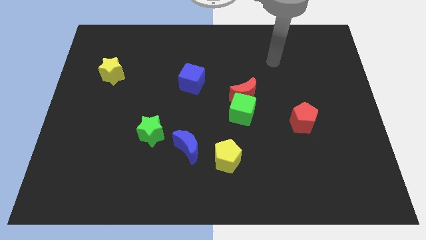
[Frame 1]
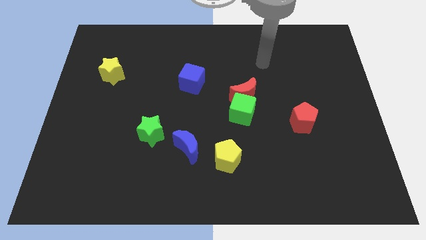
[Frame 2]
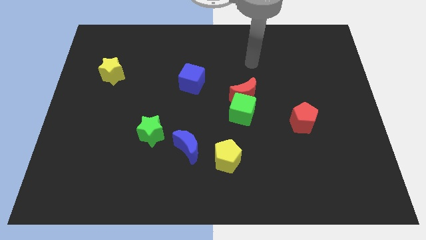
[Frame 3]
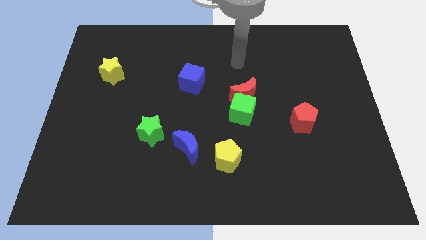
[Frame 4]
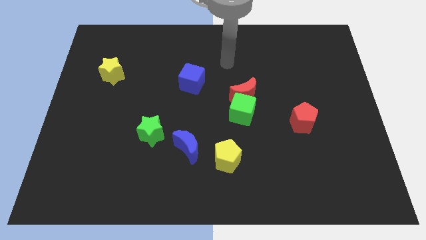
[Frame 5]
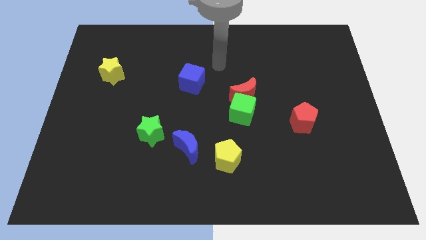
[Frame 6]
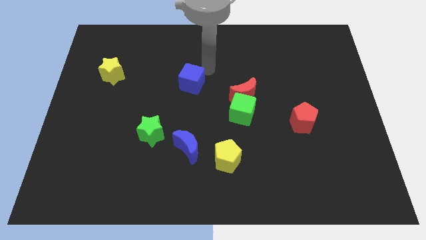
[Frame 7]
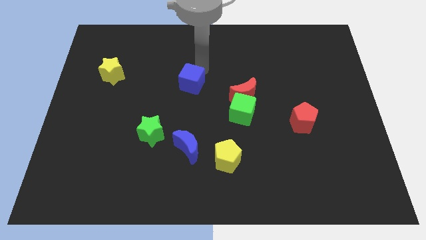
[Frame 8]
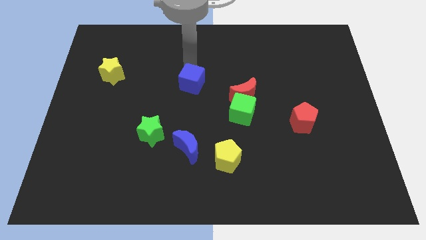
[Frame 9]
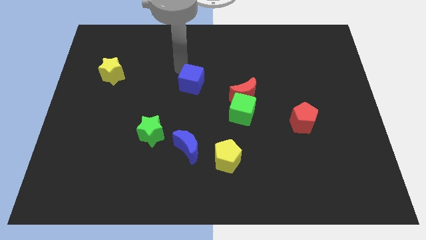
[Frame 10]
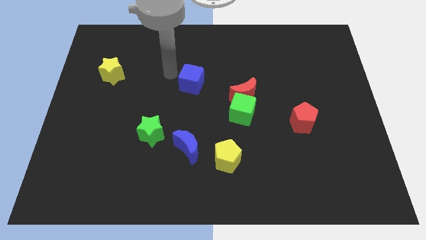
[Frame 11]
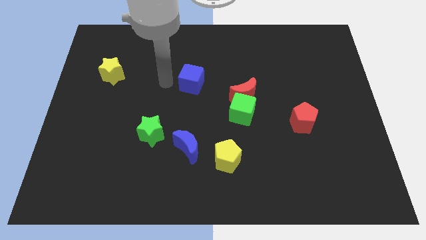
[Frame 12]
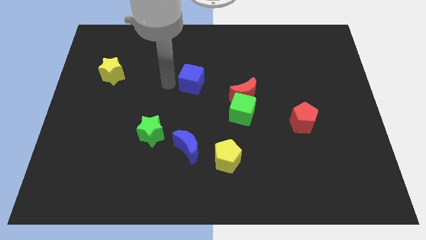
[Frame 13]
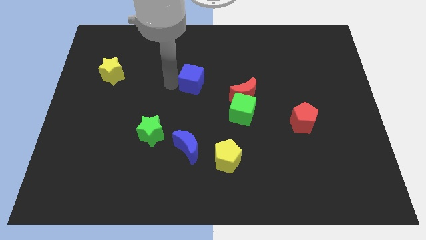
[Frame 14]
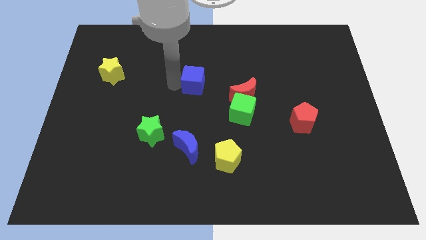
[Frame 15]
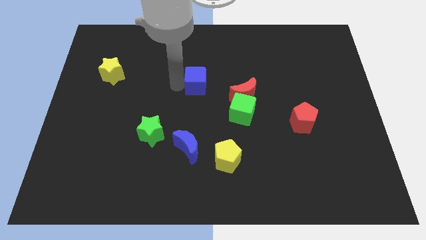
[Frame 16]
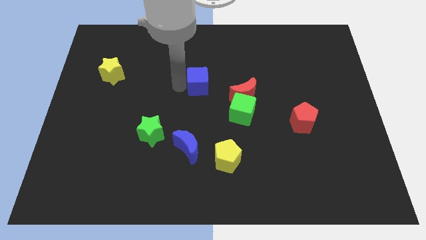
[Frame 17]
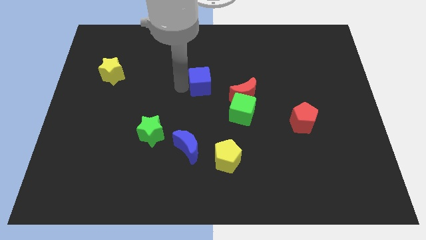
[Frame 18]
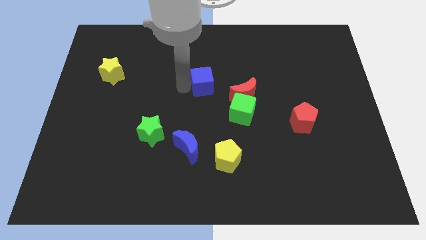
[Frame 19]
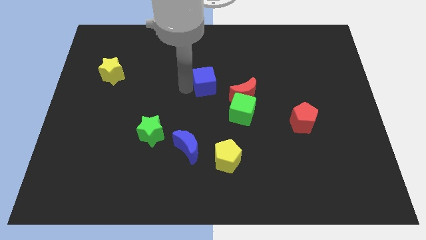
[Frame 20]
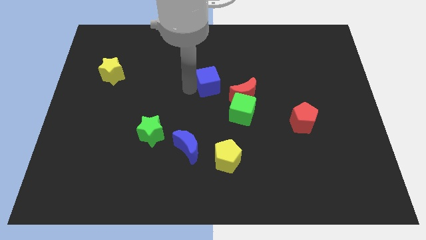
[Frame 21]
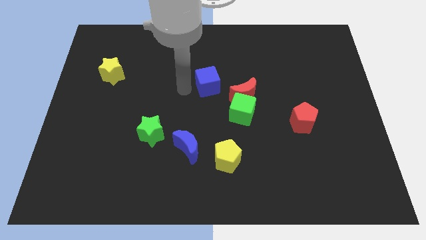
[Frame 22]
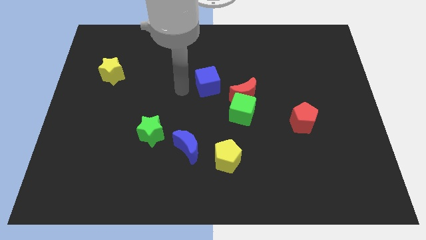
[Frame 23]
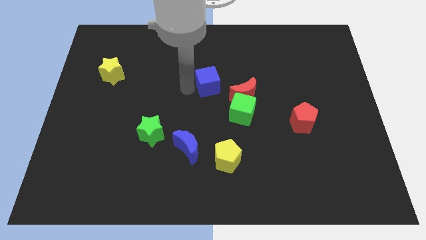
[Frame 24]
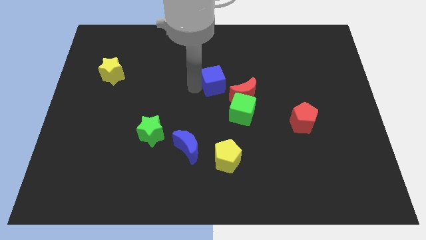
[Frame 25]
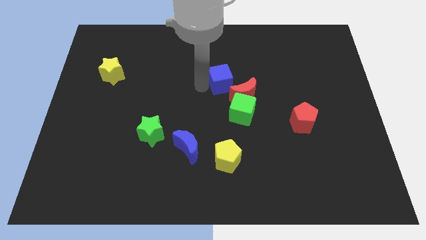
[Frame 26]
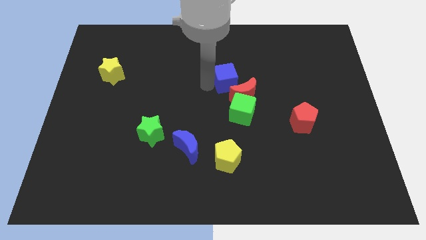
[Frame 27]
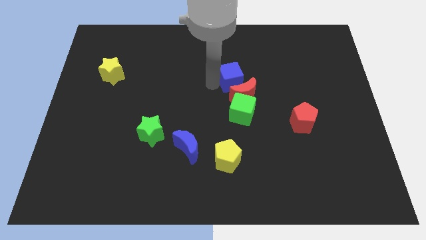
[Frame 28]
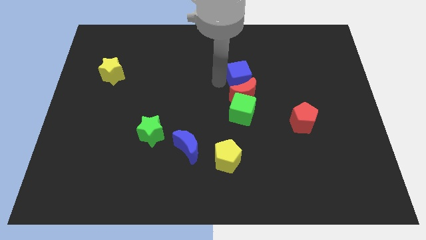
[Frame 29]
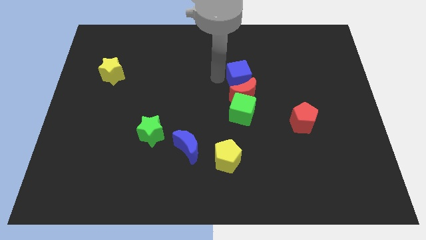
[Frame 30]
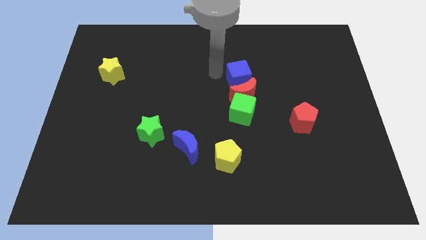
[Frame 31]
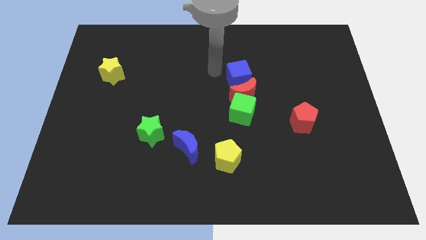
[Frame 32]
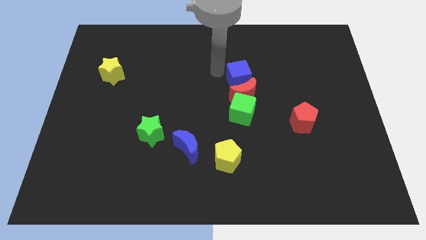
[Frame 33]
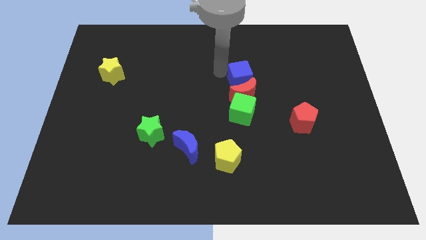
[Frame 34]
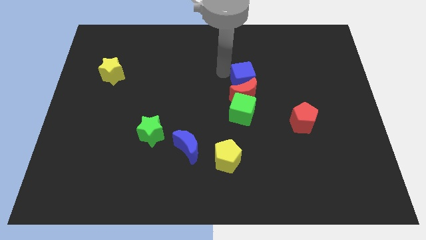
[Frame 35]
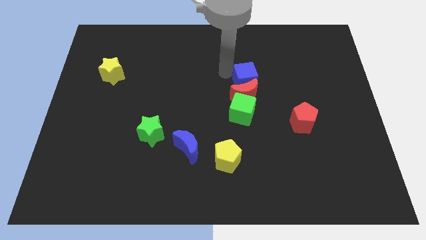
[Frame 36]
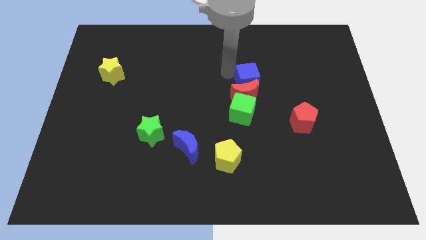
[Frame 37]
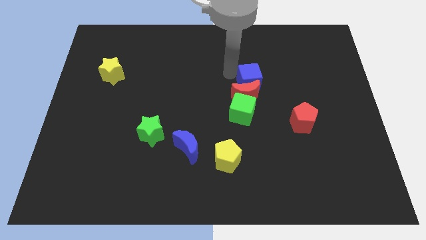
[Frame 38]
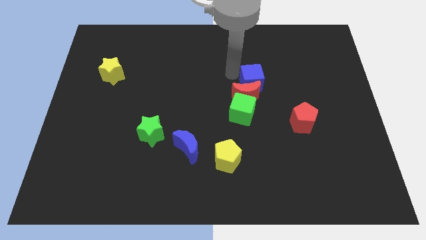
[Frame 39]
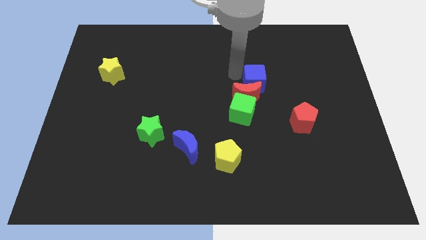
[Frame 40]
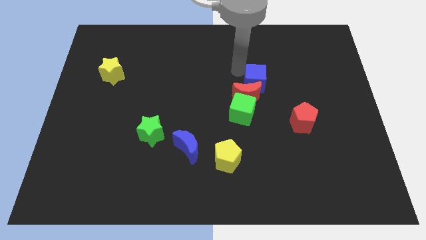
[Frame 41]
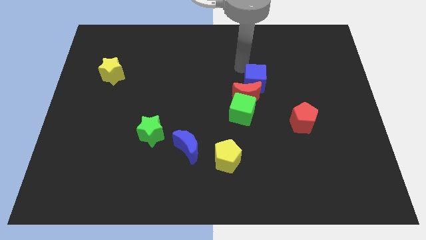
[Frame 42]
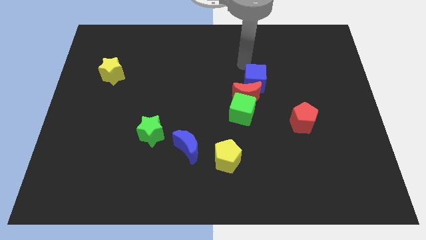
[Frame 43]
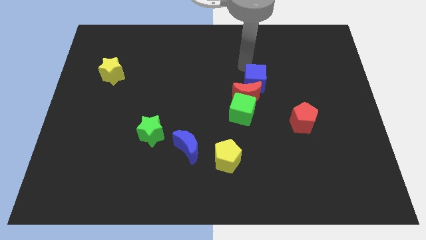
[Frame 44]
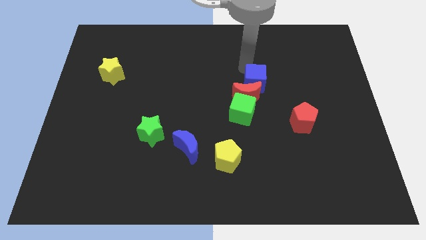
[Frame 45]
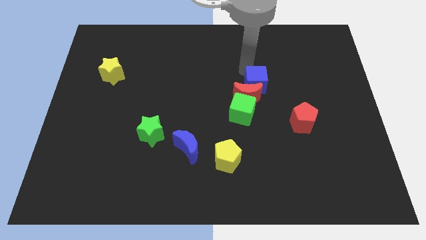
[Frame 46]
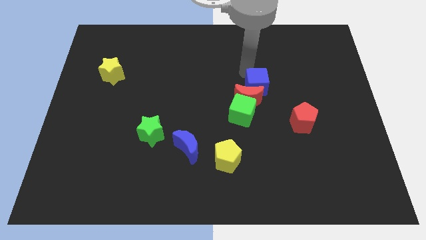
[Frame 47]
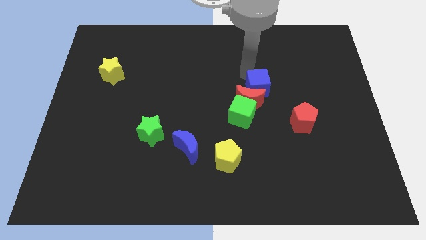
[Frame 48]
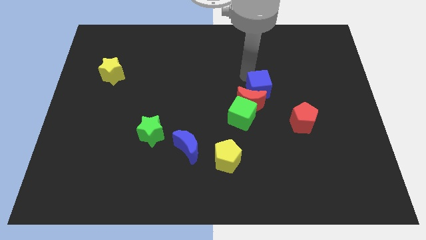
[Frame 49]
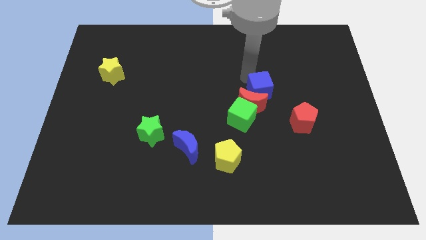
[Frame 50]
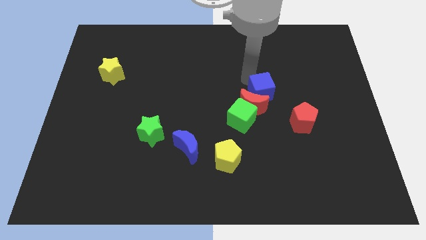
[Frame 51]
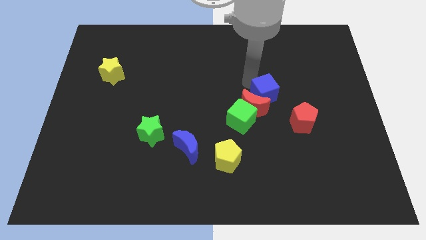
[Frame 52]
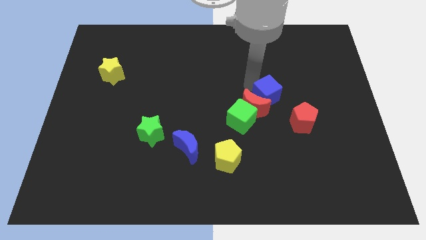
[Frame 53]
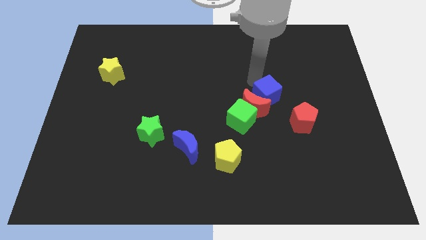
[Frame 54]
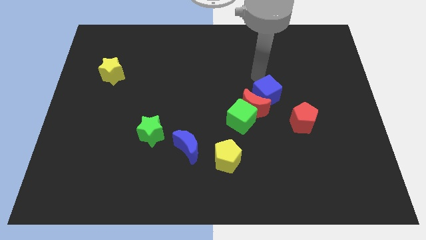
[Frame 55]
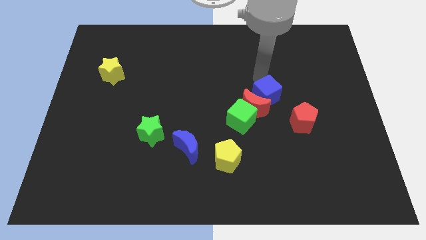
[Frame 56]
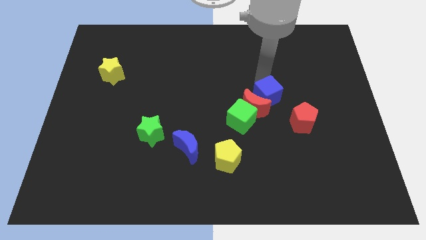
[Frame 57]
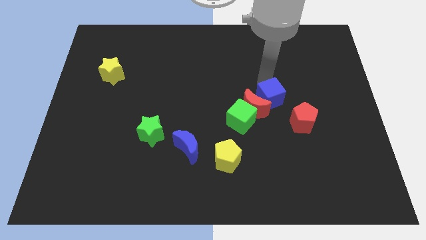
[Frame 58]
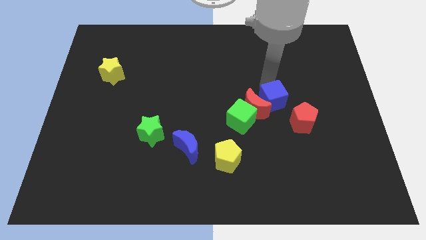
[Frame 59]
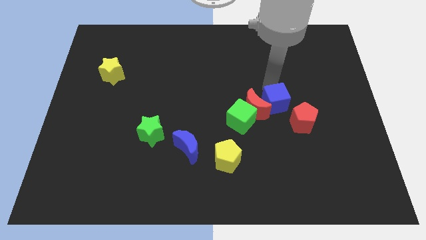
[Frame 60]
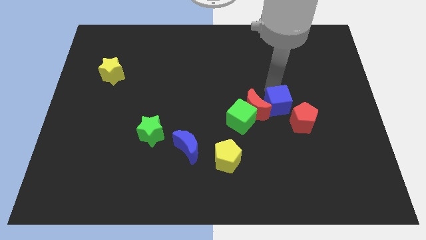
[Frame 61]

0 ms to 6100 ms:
put the blue cube to the bottom right side of the red moon

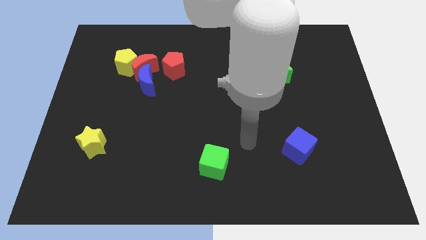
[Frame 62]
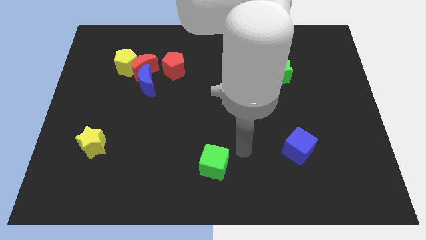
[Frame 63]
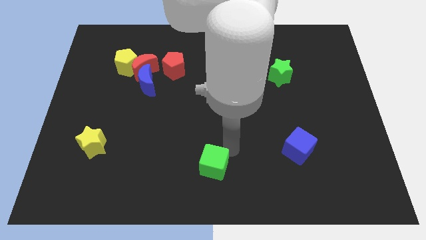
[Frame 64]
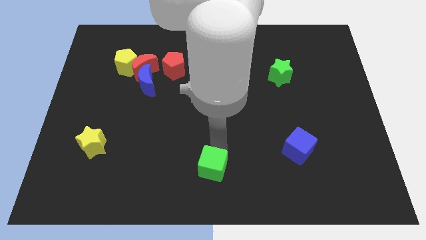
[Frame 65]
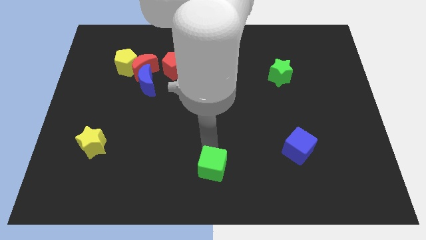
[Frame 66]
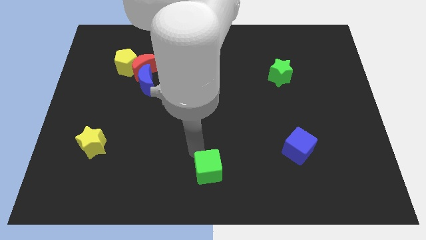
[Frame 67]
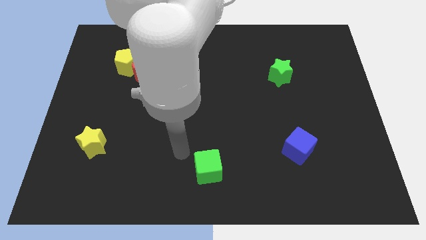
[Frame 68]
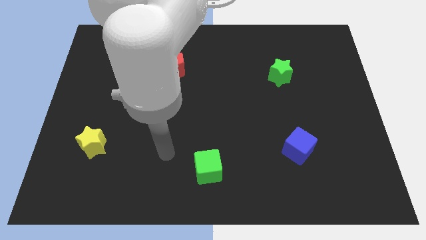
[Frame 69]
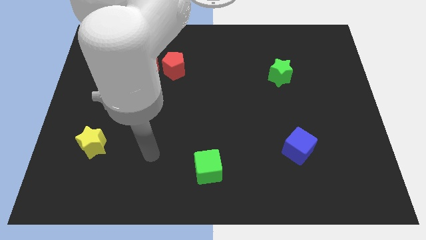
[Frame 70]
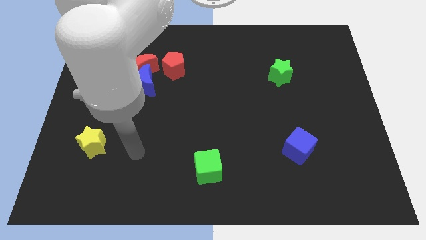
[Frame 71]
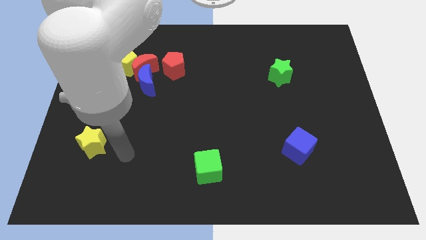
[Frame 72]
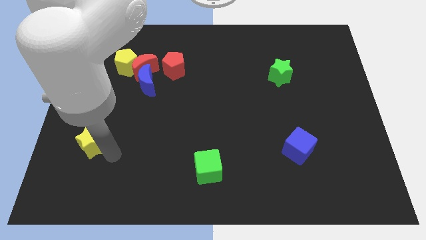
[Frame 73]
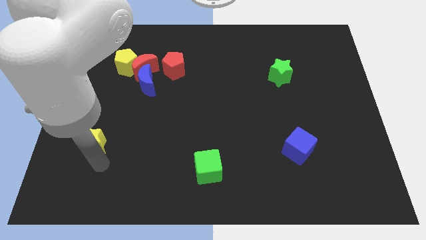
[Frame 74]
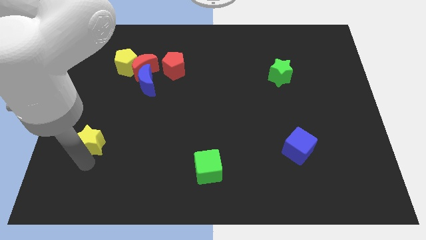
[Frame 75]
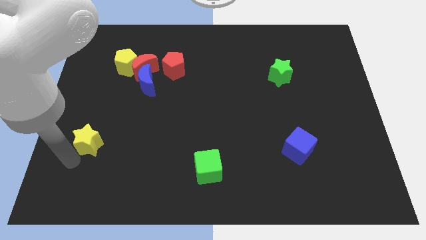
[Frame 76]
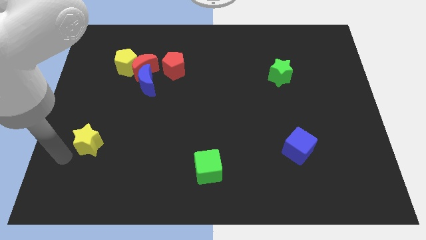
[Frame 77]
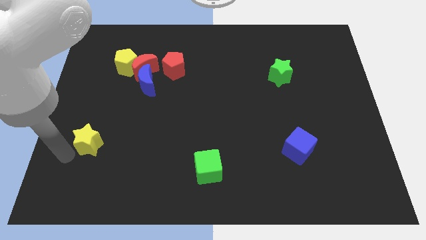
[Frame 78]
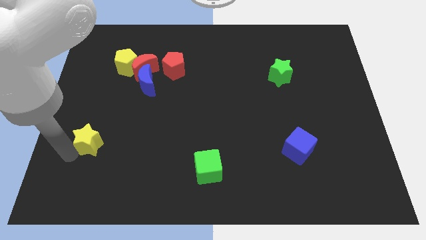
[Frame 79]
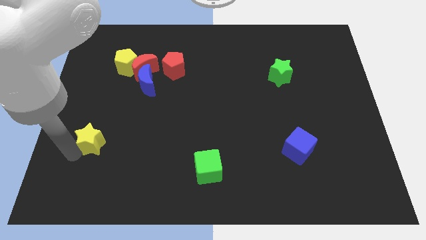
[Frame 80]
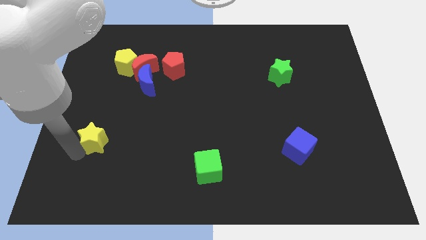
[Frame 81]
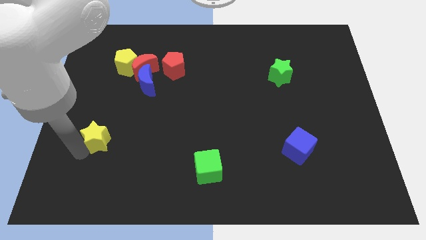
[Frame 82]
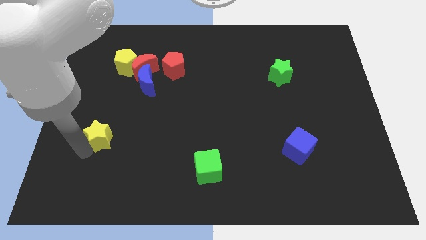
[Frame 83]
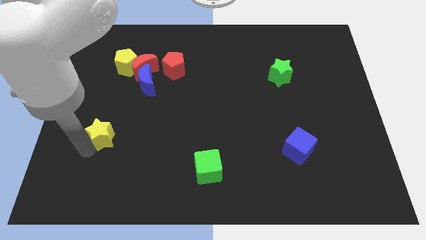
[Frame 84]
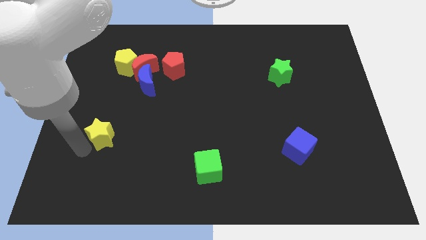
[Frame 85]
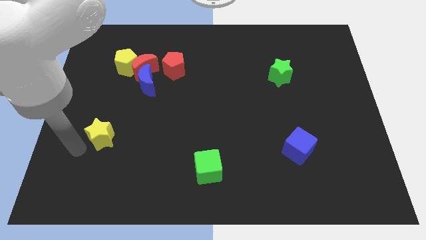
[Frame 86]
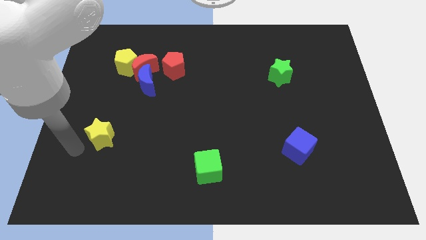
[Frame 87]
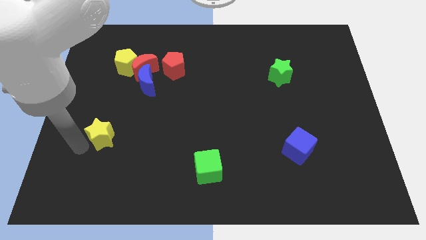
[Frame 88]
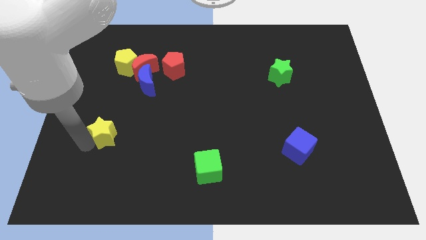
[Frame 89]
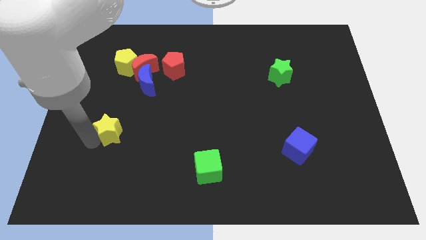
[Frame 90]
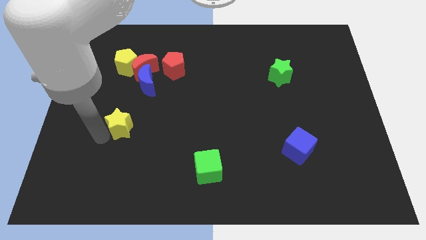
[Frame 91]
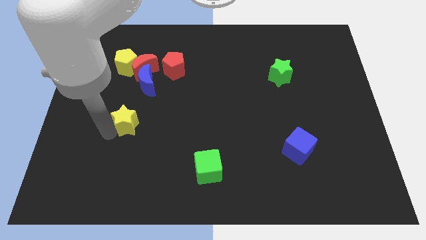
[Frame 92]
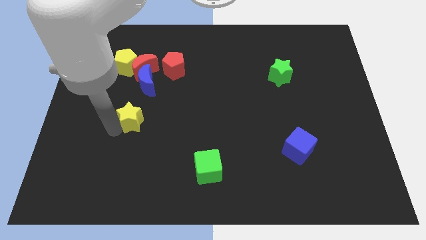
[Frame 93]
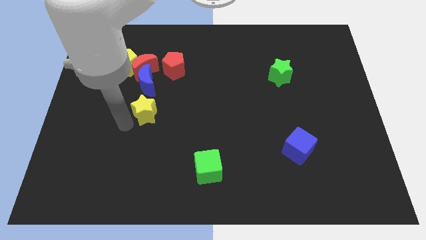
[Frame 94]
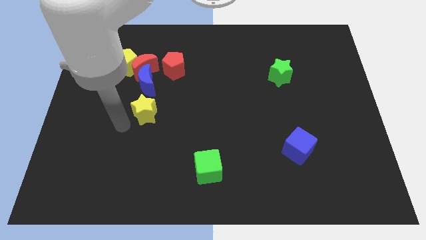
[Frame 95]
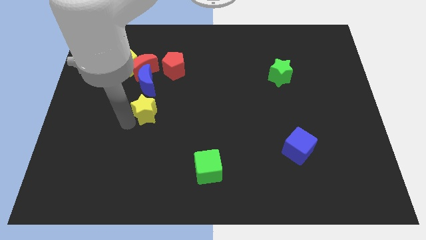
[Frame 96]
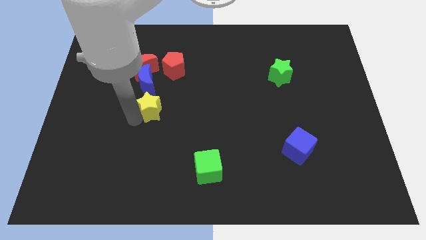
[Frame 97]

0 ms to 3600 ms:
push the yellow star to the bottom side of the red pentagon
